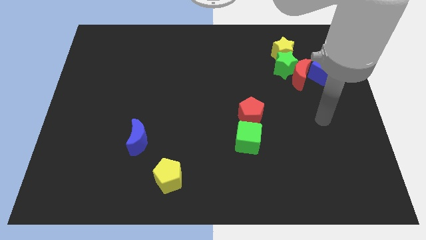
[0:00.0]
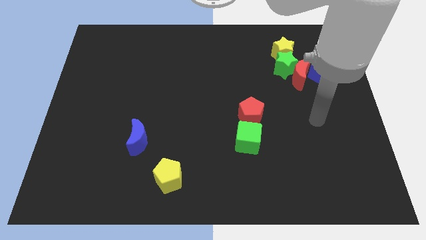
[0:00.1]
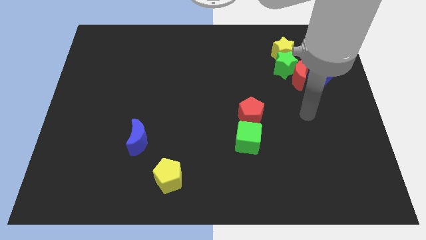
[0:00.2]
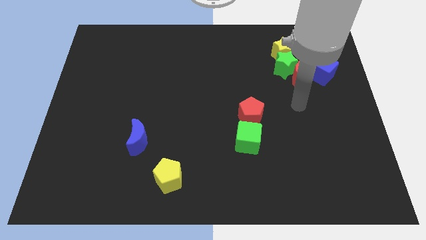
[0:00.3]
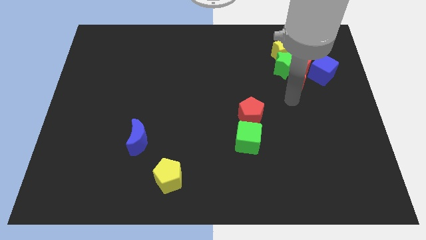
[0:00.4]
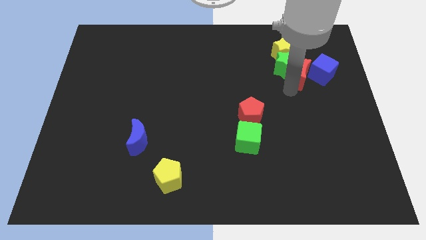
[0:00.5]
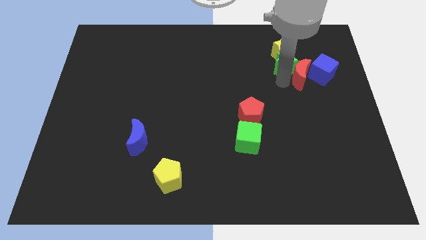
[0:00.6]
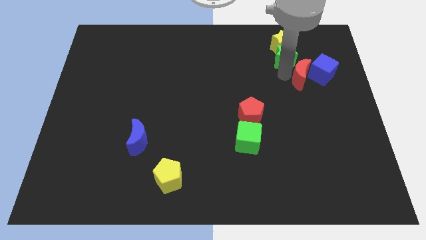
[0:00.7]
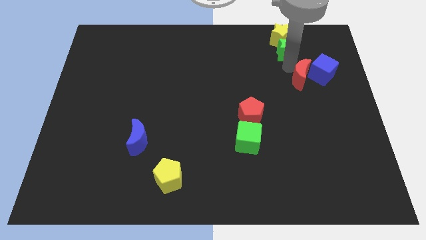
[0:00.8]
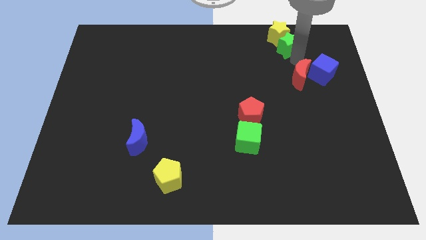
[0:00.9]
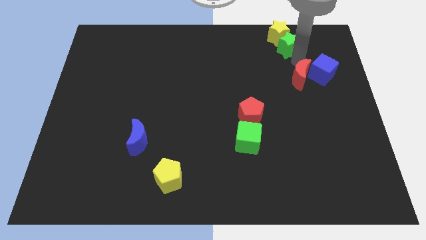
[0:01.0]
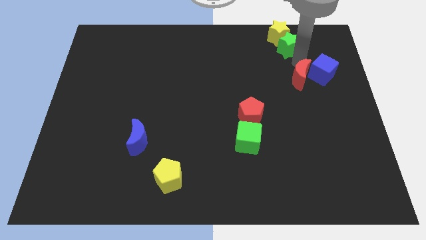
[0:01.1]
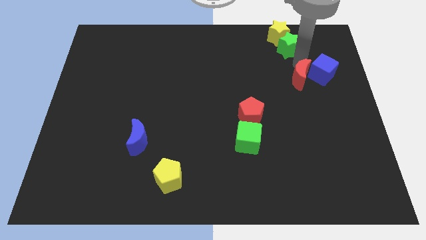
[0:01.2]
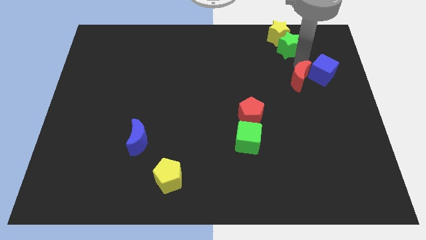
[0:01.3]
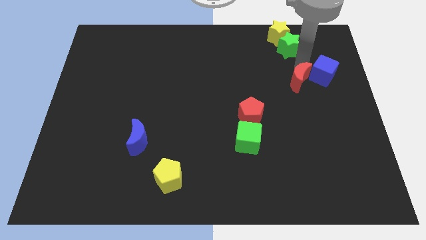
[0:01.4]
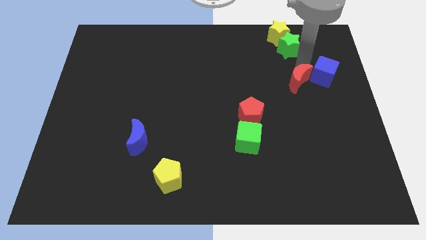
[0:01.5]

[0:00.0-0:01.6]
pull the red moon apart from the clump

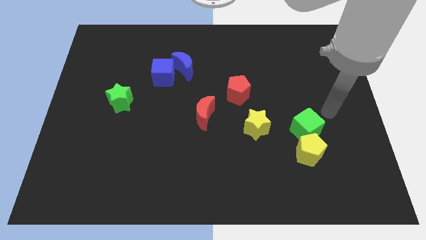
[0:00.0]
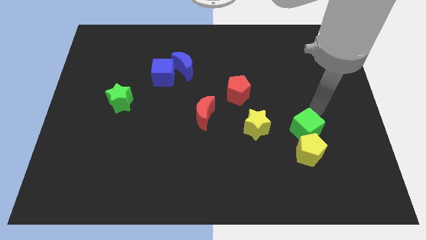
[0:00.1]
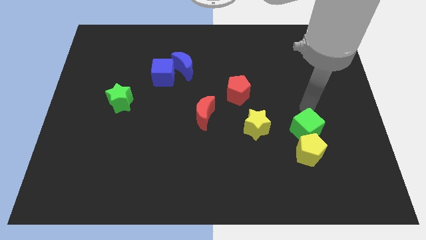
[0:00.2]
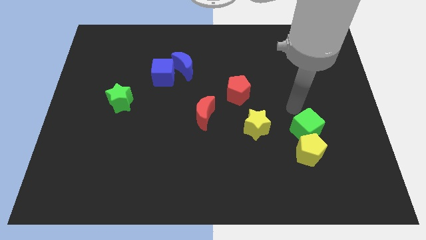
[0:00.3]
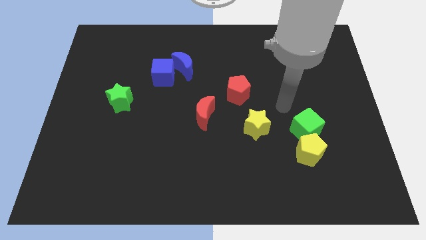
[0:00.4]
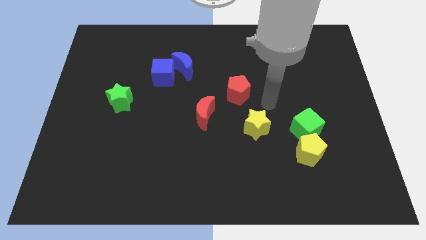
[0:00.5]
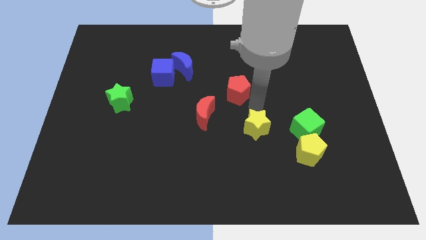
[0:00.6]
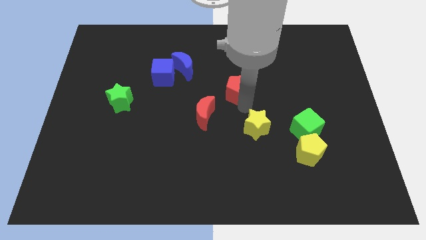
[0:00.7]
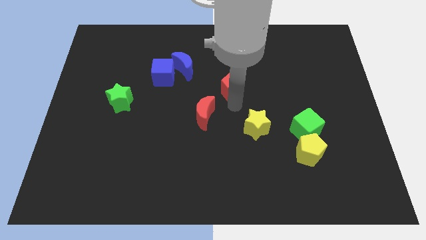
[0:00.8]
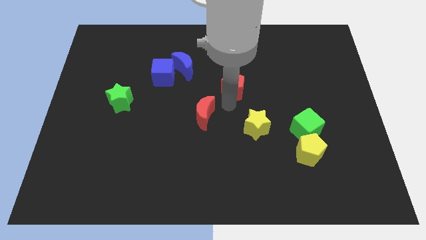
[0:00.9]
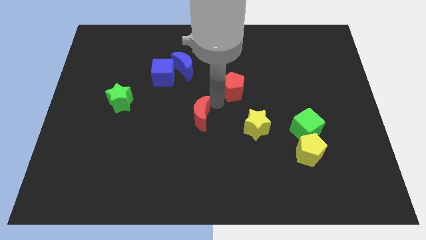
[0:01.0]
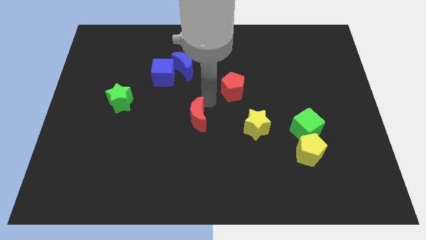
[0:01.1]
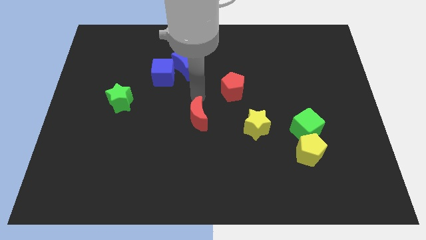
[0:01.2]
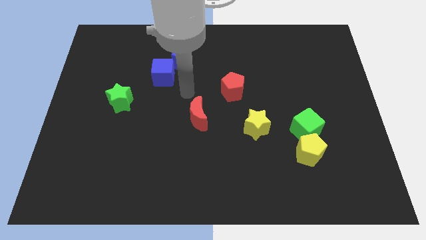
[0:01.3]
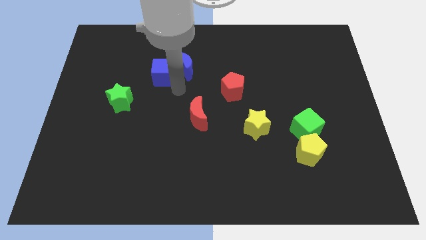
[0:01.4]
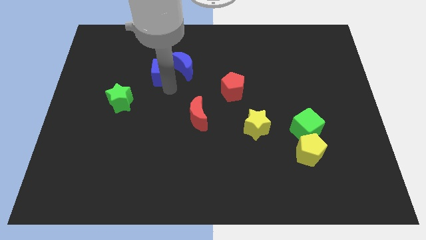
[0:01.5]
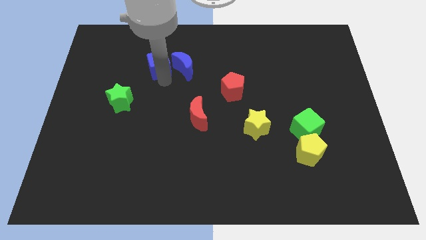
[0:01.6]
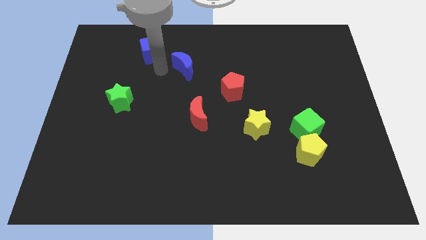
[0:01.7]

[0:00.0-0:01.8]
separate the blue moon from the blue cube

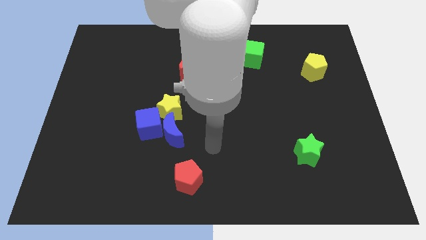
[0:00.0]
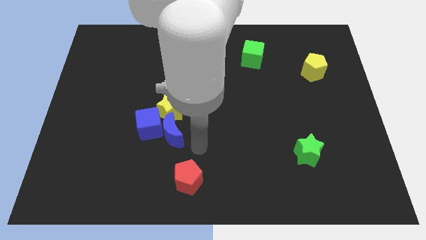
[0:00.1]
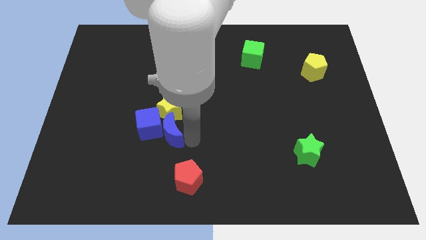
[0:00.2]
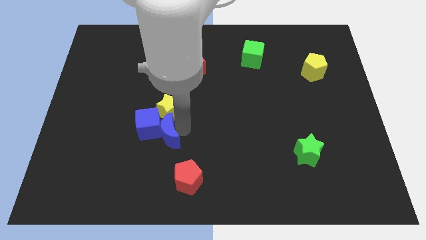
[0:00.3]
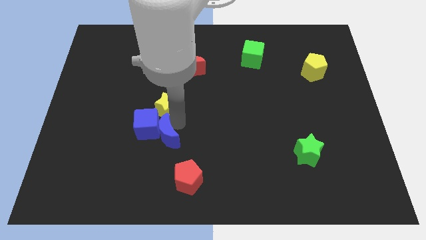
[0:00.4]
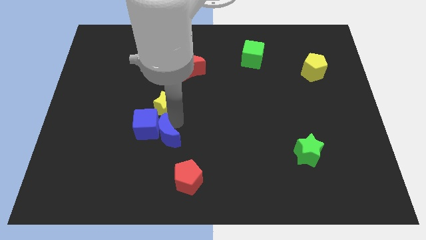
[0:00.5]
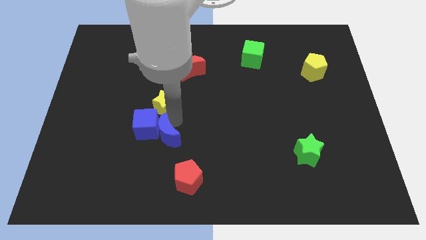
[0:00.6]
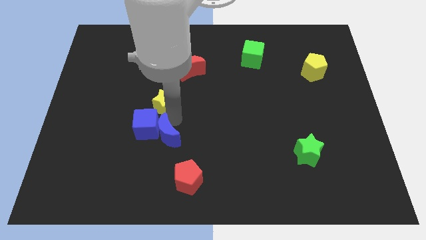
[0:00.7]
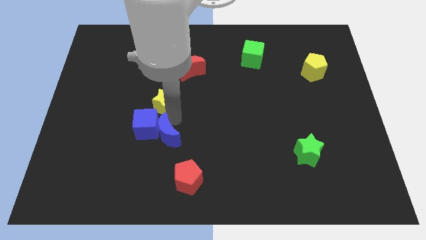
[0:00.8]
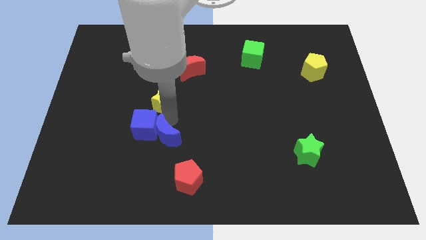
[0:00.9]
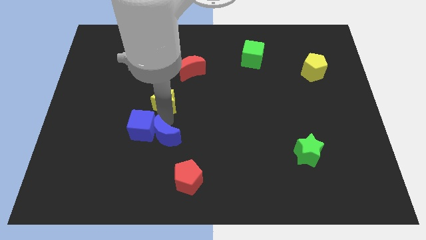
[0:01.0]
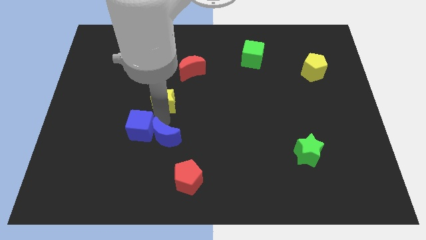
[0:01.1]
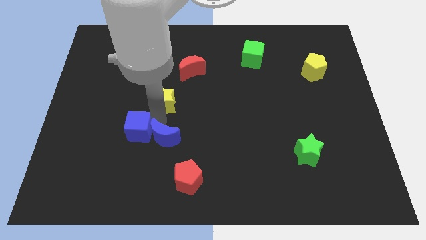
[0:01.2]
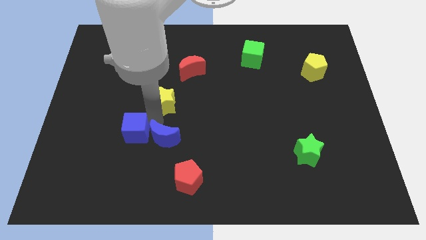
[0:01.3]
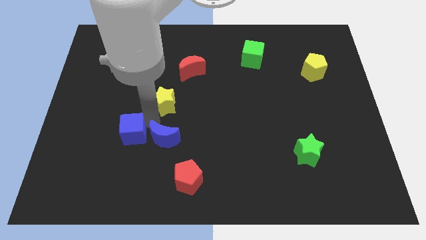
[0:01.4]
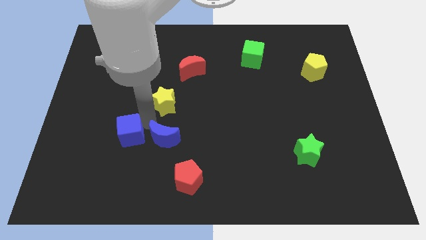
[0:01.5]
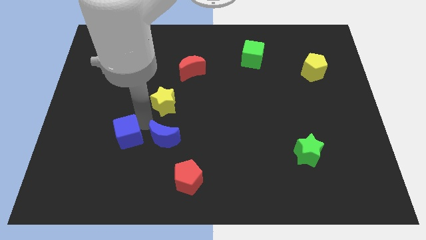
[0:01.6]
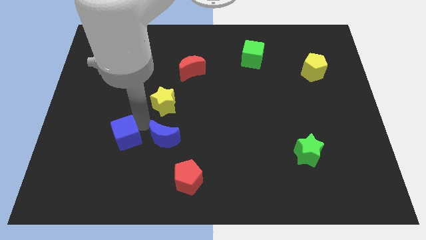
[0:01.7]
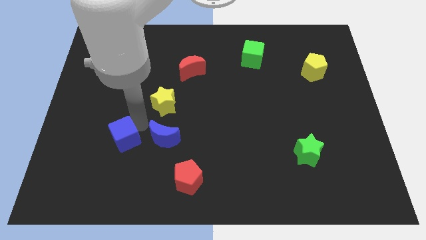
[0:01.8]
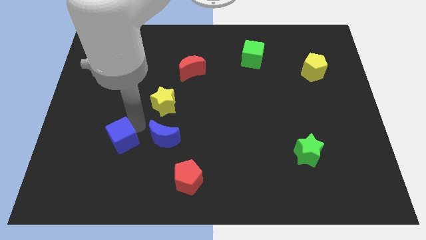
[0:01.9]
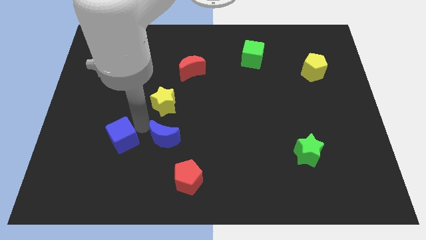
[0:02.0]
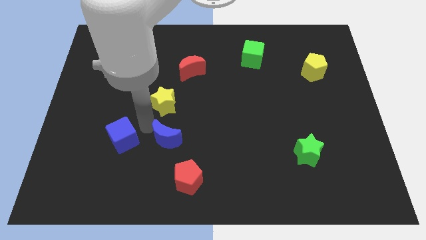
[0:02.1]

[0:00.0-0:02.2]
pull the blue cube apart from the blue moon and yellow star

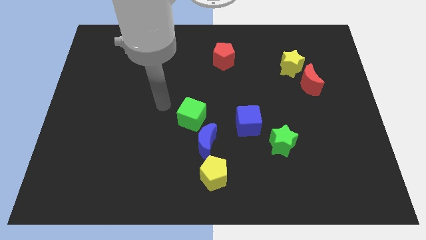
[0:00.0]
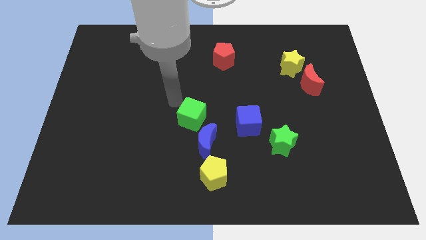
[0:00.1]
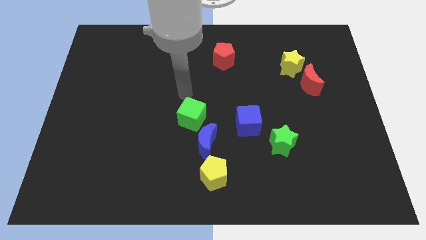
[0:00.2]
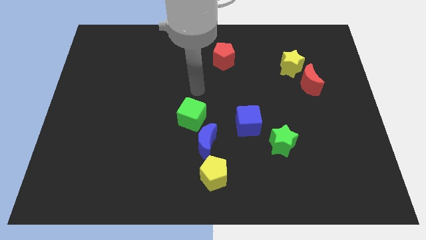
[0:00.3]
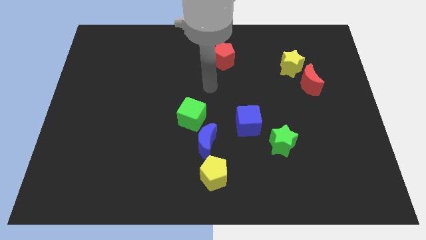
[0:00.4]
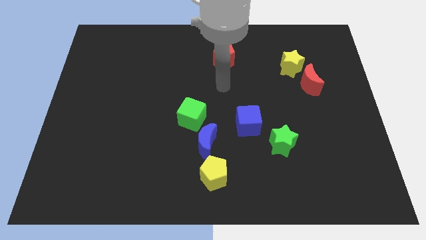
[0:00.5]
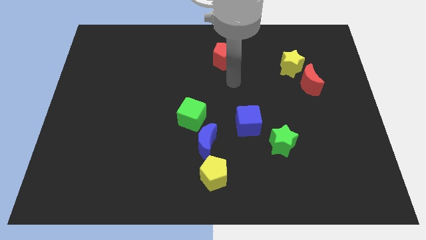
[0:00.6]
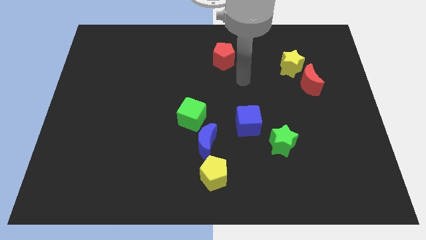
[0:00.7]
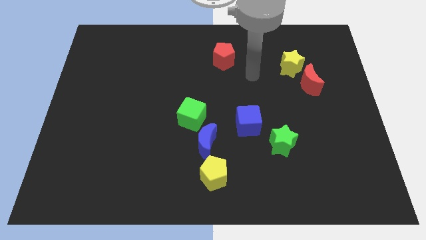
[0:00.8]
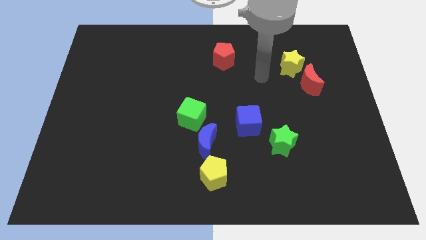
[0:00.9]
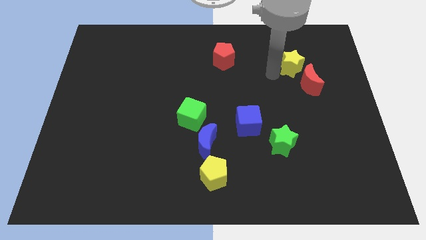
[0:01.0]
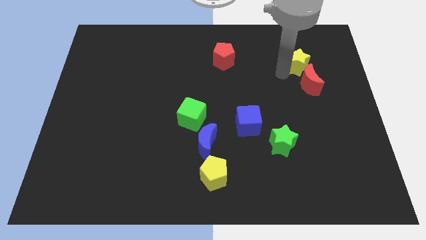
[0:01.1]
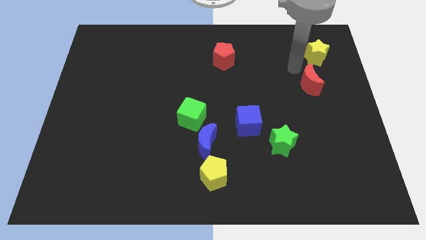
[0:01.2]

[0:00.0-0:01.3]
move the red moon away from the yellow star

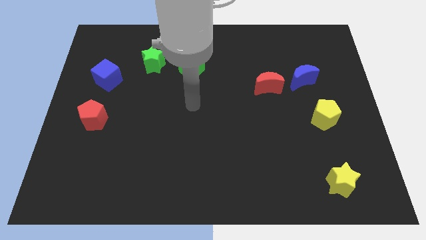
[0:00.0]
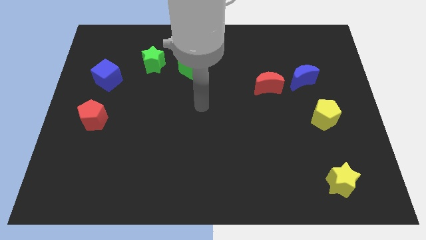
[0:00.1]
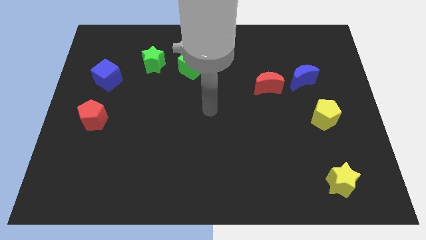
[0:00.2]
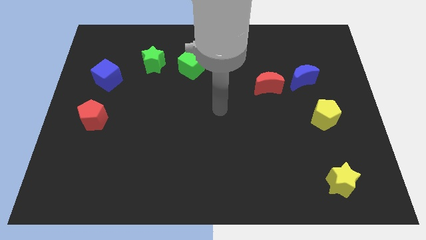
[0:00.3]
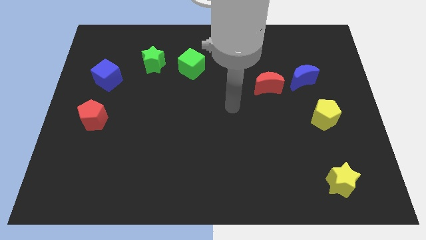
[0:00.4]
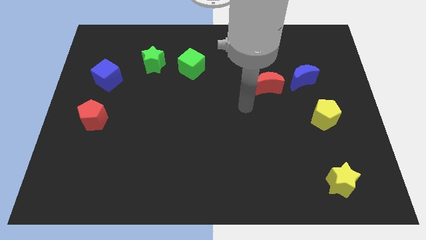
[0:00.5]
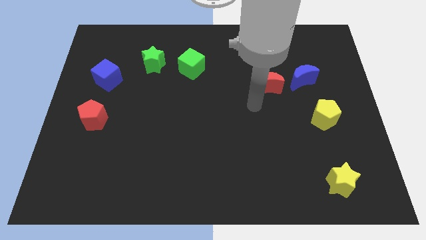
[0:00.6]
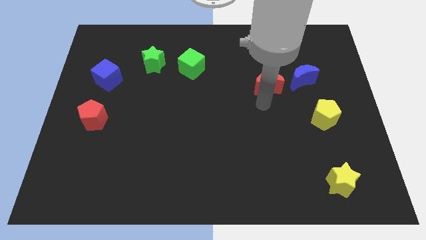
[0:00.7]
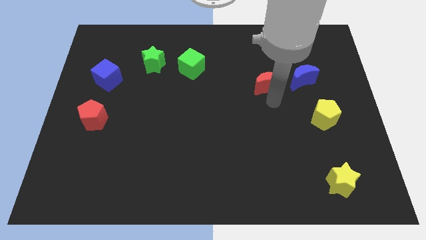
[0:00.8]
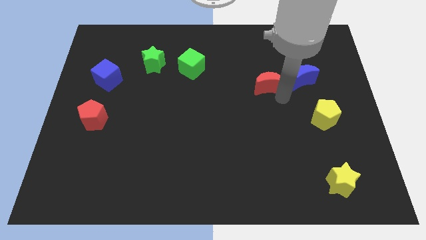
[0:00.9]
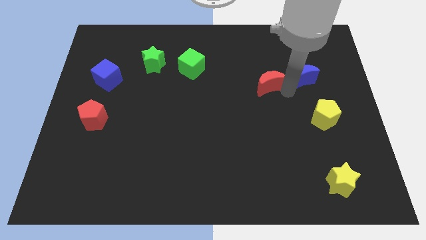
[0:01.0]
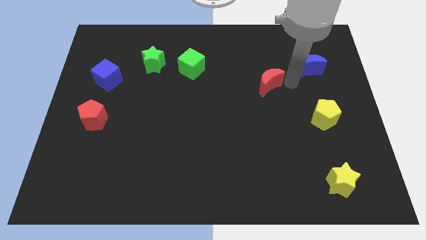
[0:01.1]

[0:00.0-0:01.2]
move the red moon away from the blue moon

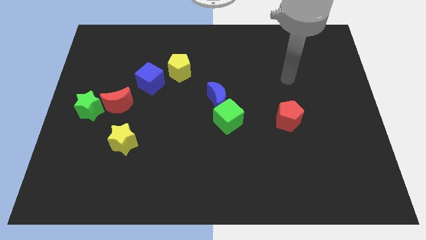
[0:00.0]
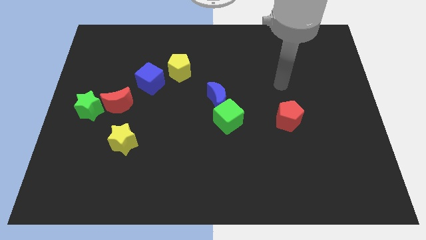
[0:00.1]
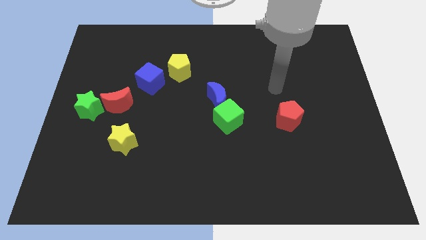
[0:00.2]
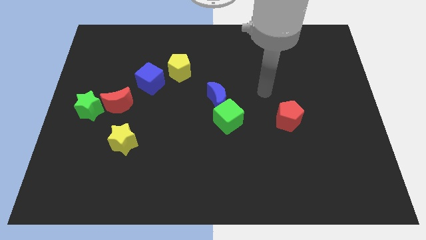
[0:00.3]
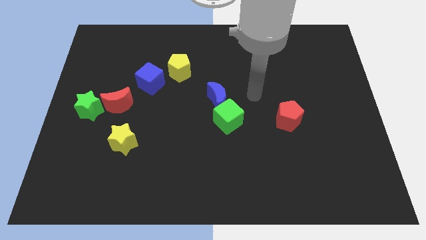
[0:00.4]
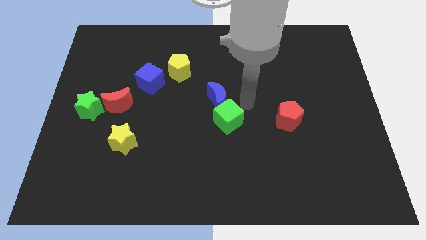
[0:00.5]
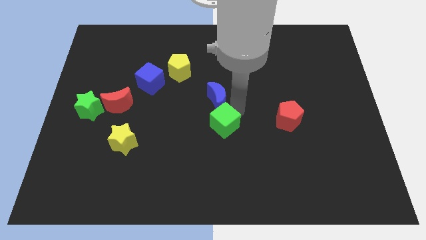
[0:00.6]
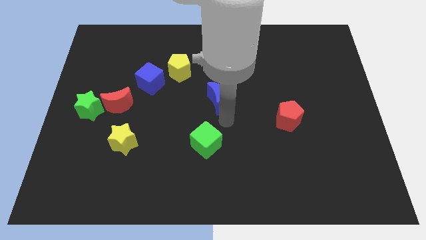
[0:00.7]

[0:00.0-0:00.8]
separate the blue moon from the green cube

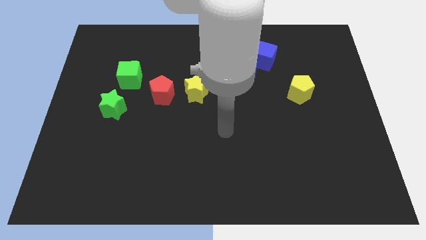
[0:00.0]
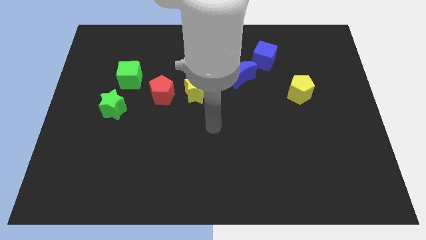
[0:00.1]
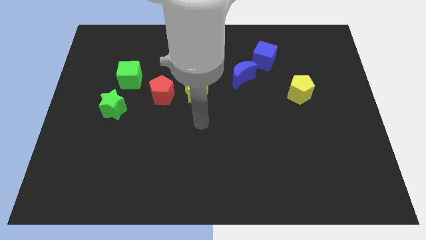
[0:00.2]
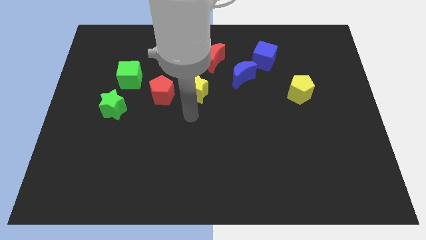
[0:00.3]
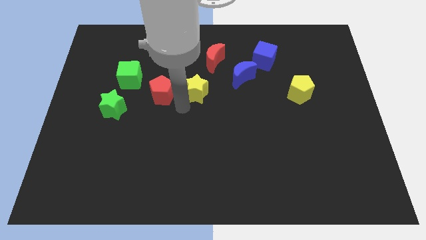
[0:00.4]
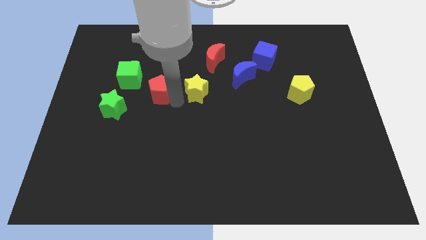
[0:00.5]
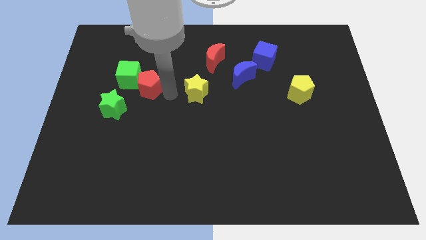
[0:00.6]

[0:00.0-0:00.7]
move the yellow star away from the red pentagon
